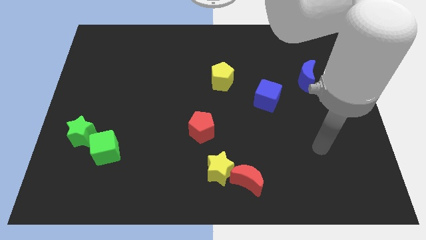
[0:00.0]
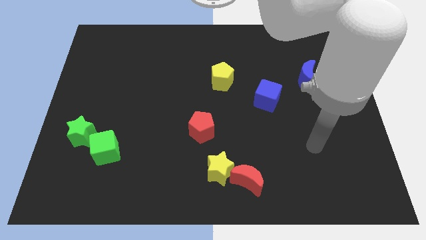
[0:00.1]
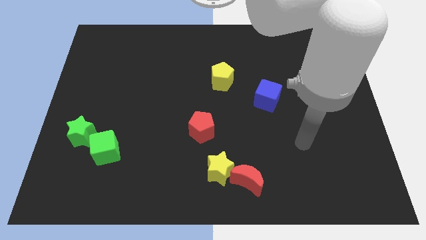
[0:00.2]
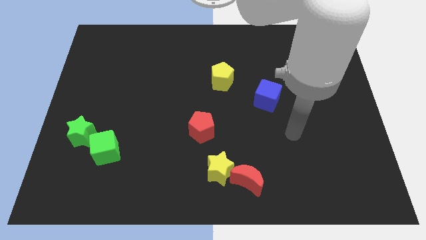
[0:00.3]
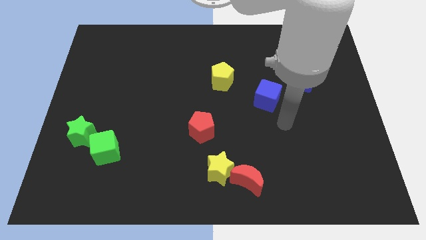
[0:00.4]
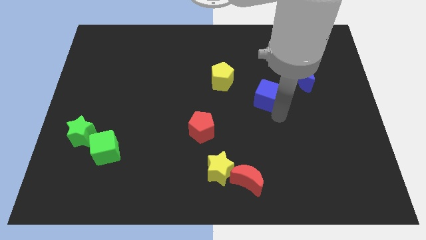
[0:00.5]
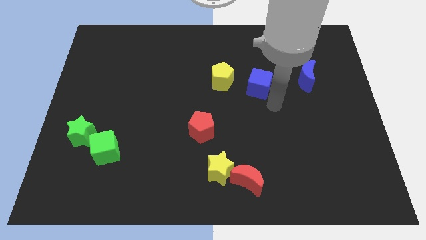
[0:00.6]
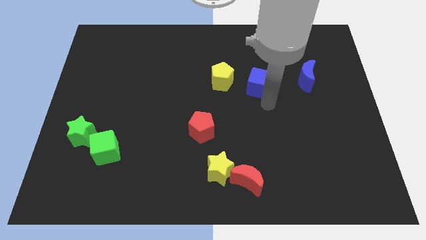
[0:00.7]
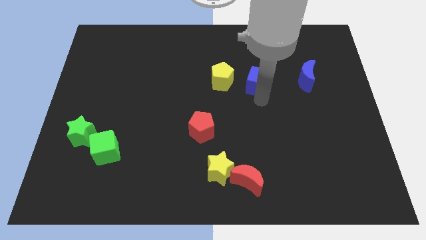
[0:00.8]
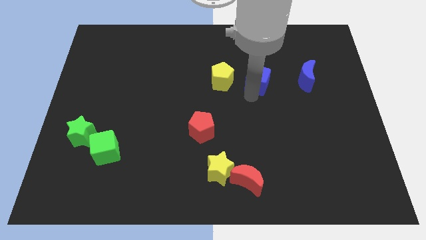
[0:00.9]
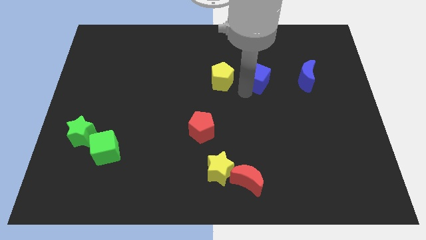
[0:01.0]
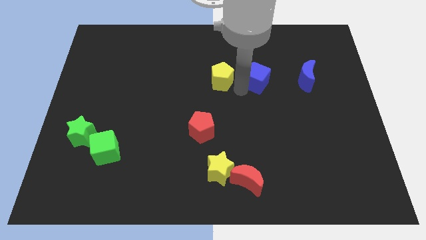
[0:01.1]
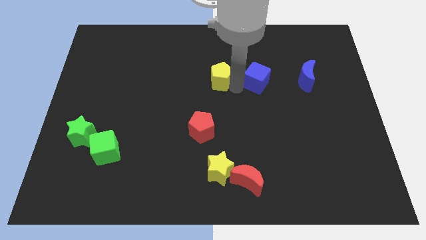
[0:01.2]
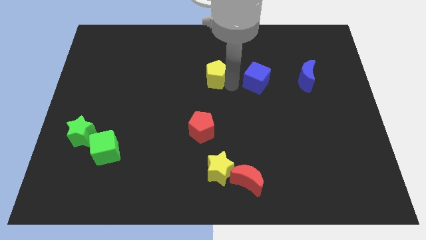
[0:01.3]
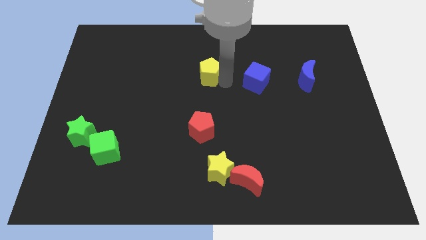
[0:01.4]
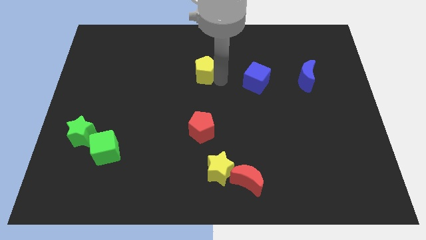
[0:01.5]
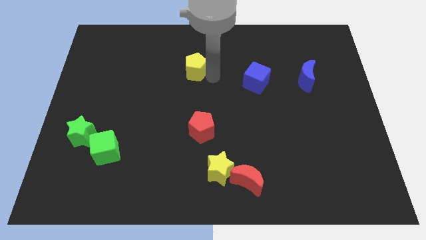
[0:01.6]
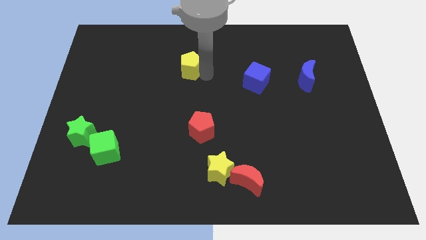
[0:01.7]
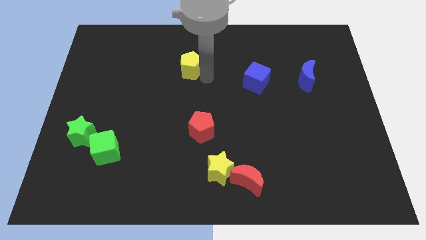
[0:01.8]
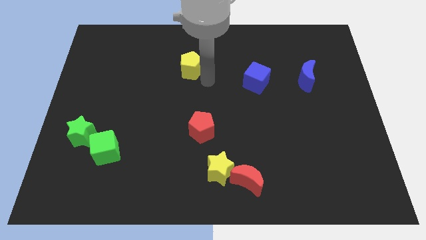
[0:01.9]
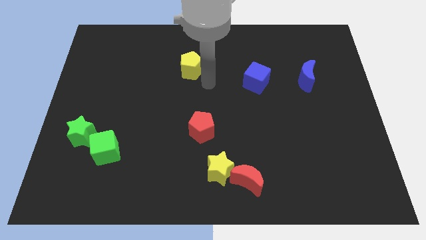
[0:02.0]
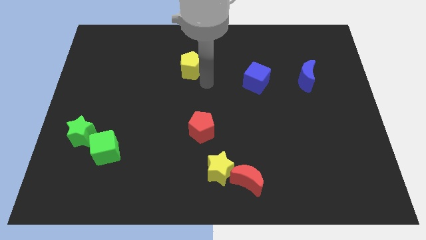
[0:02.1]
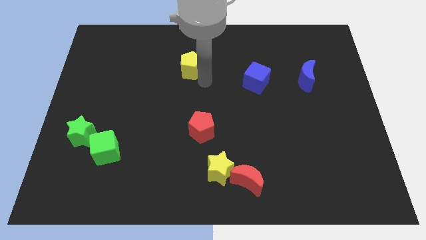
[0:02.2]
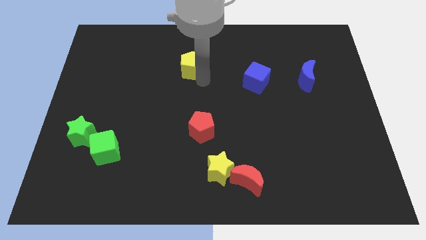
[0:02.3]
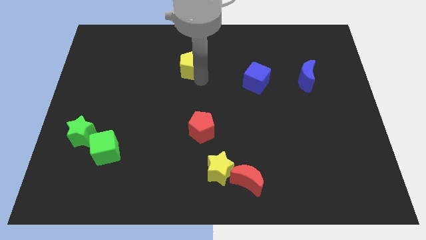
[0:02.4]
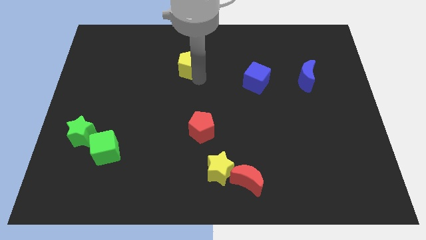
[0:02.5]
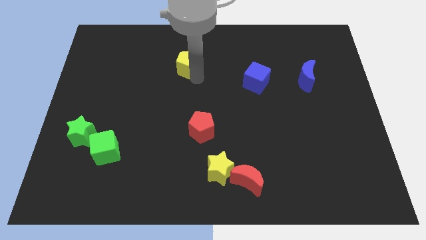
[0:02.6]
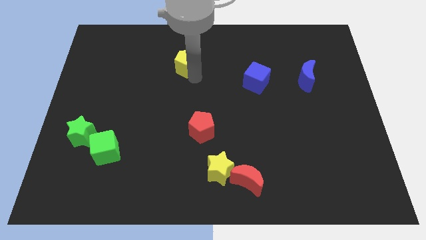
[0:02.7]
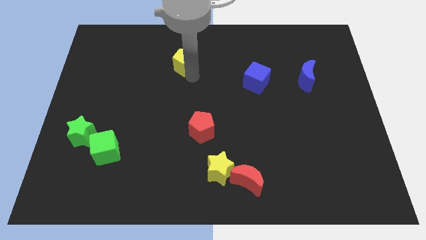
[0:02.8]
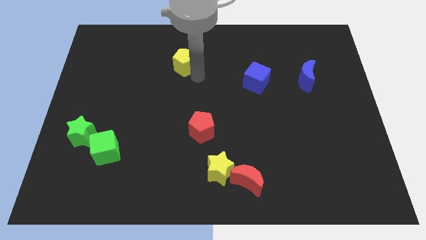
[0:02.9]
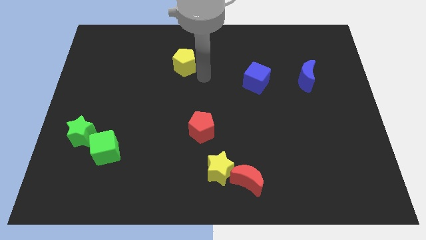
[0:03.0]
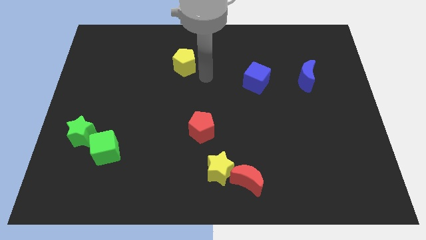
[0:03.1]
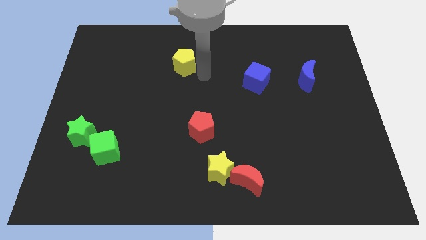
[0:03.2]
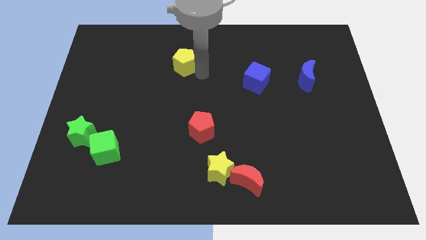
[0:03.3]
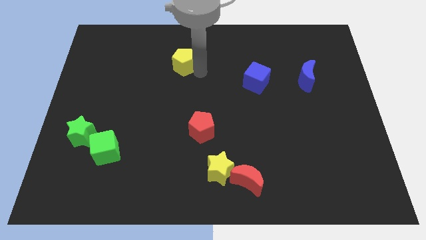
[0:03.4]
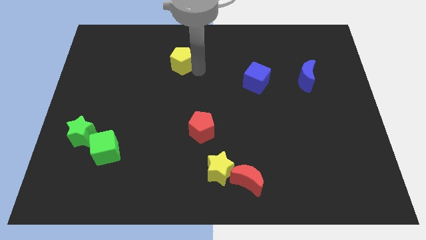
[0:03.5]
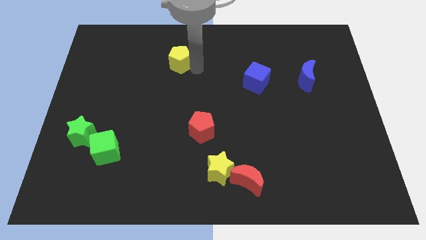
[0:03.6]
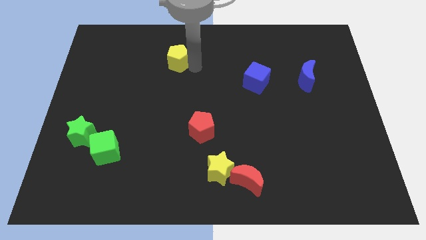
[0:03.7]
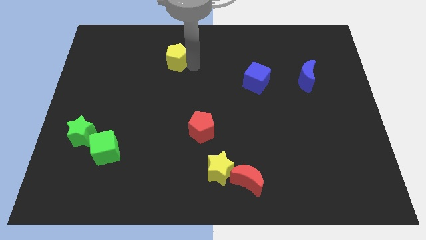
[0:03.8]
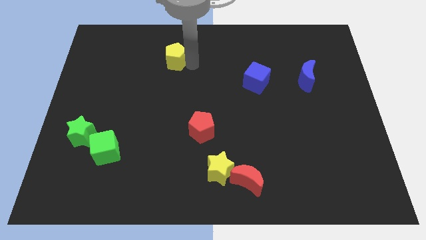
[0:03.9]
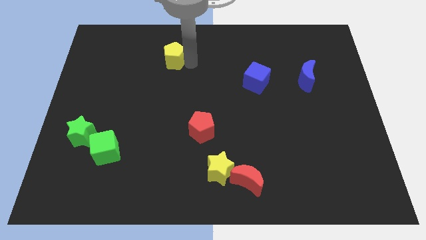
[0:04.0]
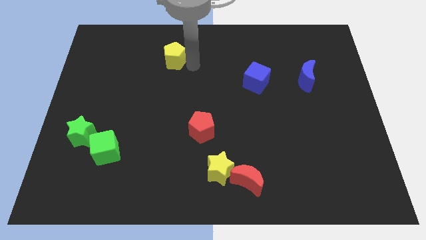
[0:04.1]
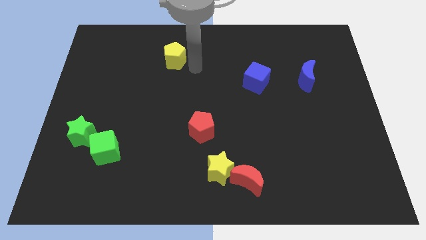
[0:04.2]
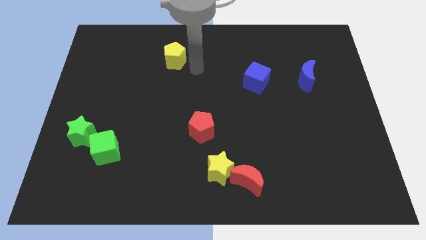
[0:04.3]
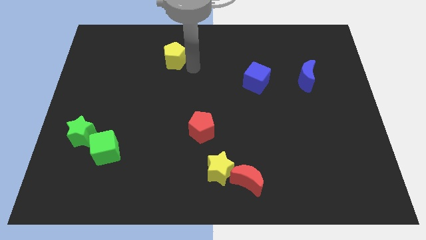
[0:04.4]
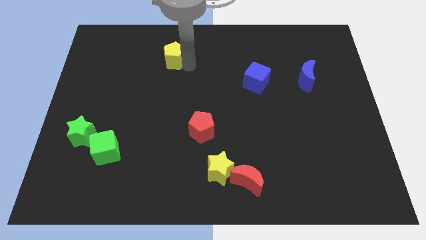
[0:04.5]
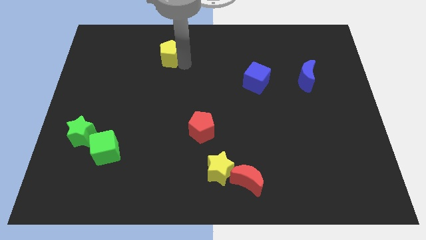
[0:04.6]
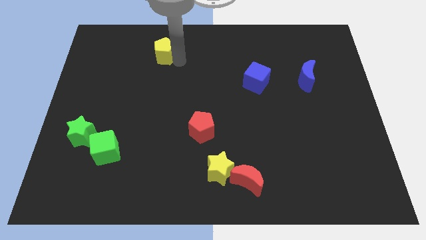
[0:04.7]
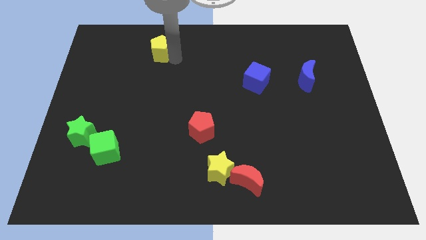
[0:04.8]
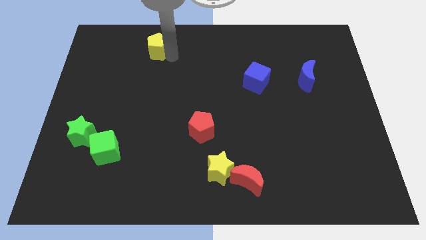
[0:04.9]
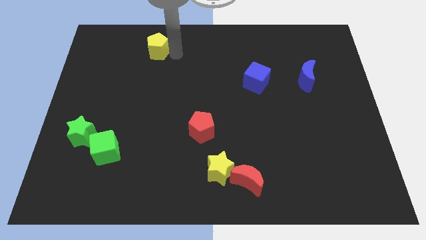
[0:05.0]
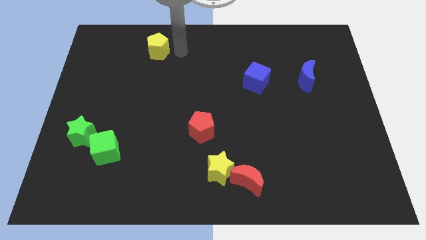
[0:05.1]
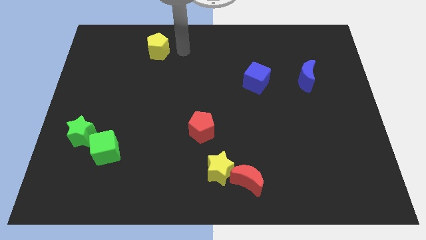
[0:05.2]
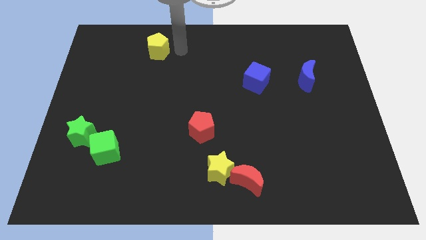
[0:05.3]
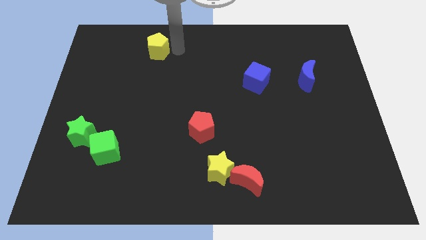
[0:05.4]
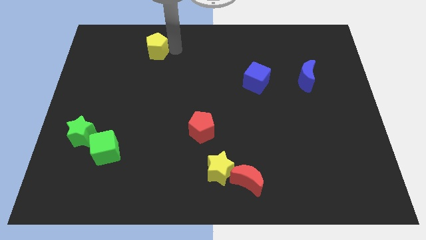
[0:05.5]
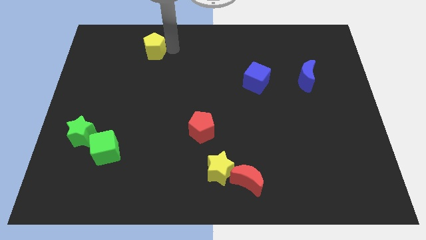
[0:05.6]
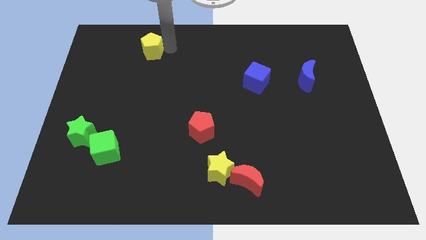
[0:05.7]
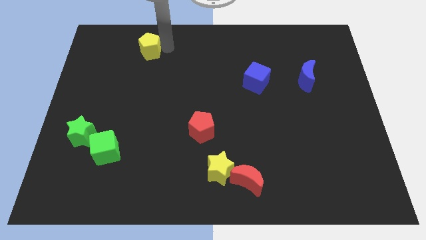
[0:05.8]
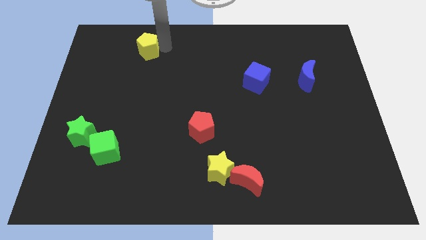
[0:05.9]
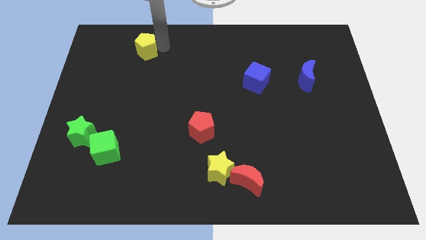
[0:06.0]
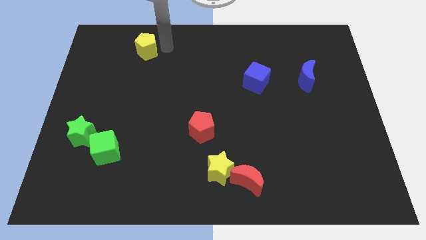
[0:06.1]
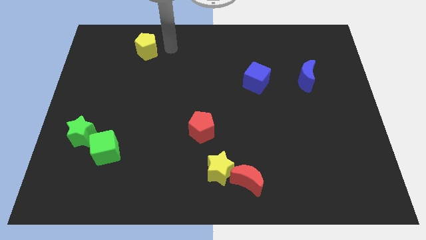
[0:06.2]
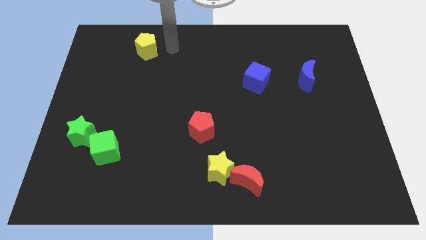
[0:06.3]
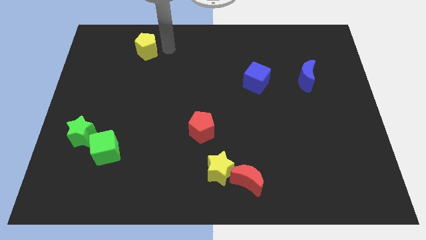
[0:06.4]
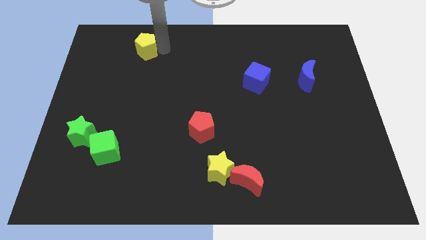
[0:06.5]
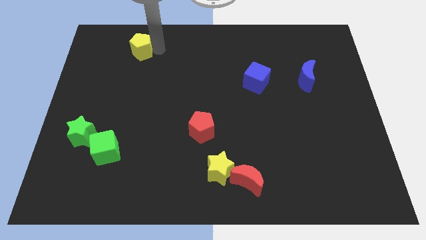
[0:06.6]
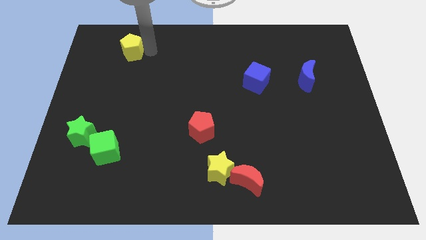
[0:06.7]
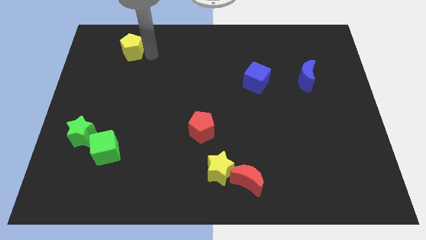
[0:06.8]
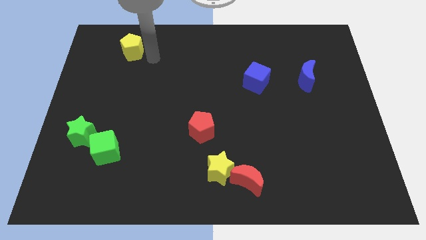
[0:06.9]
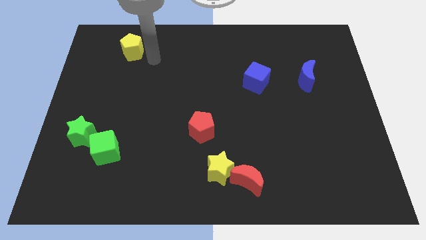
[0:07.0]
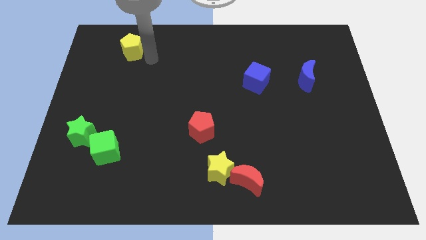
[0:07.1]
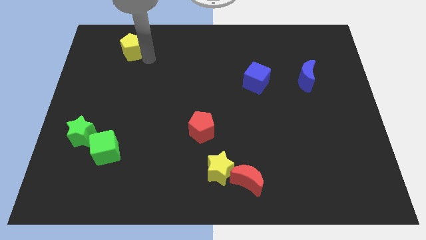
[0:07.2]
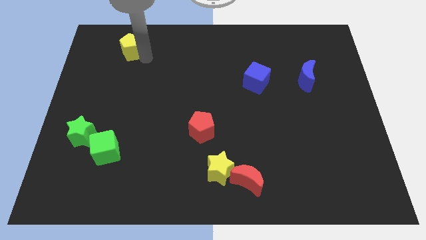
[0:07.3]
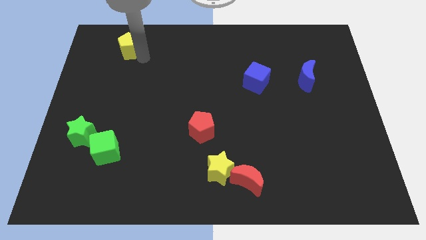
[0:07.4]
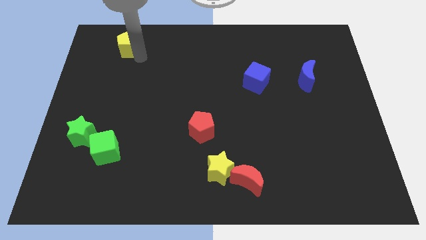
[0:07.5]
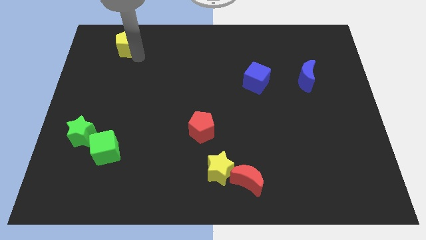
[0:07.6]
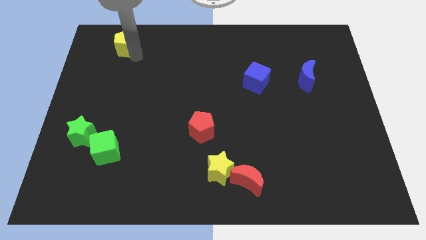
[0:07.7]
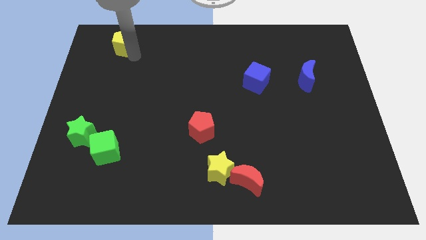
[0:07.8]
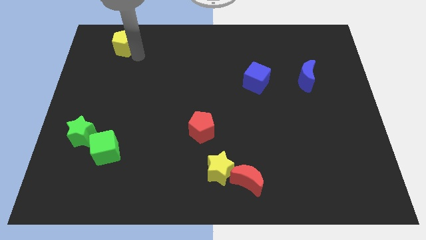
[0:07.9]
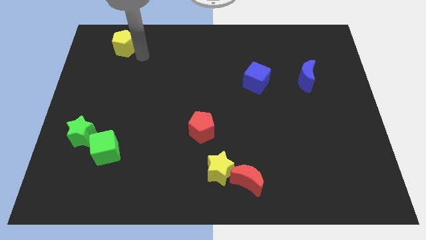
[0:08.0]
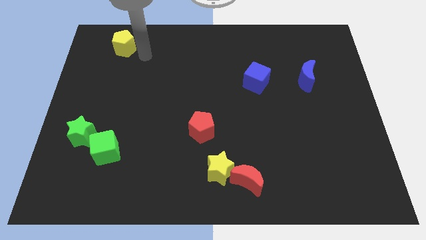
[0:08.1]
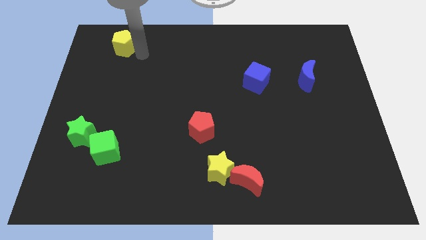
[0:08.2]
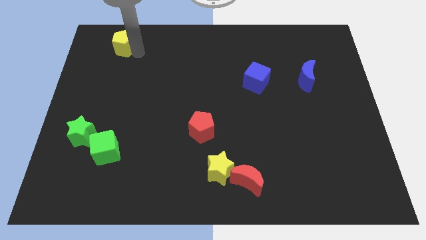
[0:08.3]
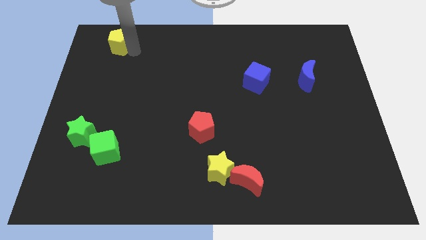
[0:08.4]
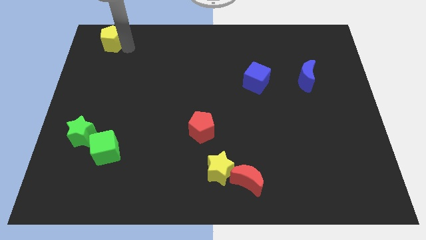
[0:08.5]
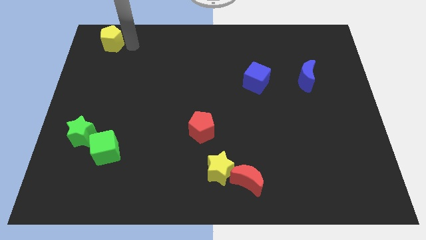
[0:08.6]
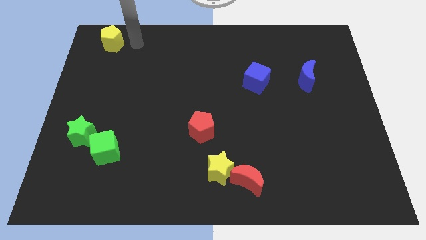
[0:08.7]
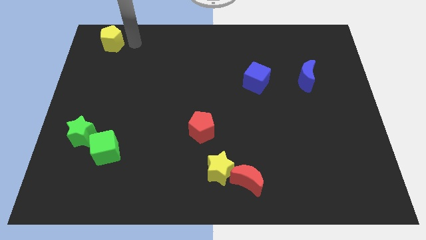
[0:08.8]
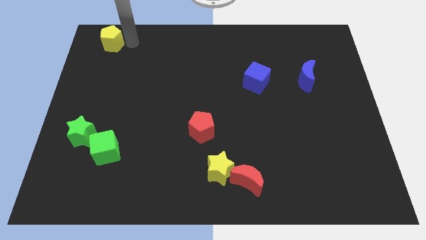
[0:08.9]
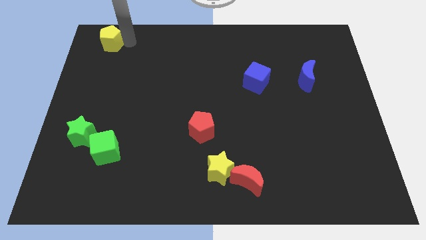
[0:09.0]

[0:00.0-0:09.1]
slide the yellow pentagon to the top left of the board
